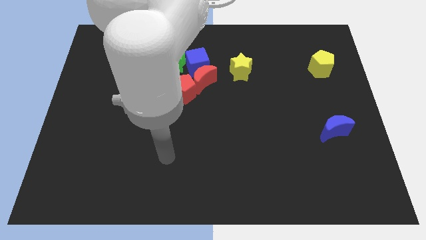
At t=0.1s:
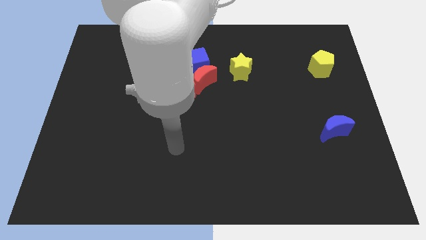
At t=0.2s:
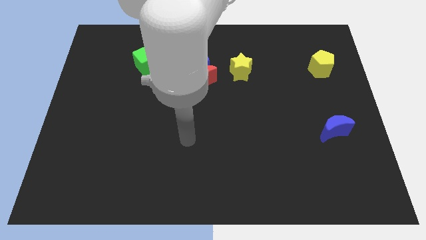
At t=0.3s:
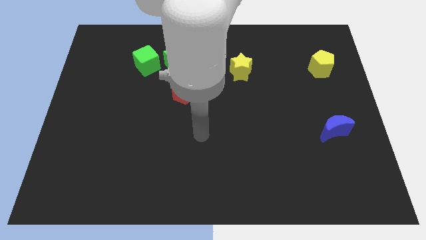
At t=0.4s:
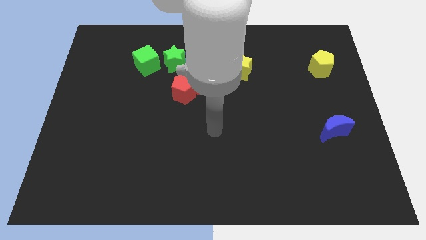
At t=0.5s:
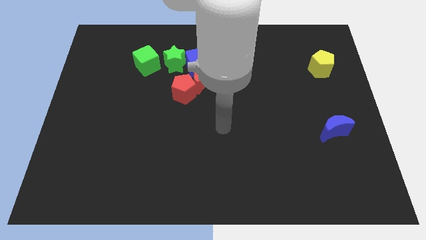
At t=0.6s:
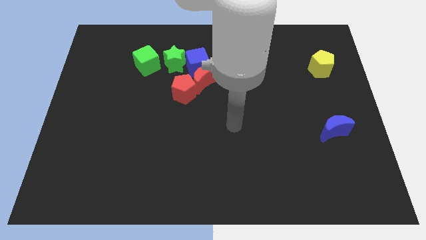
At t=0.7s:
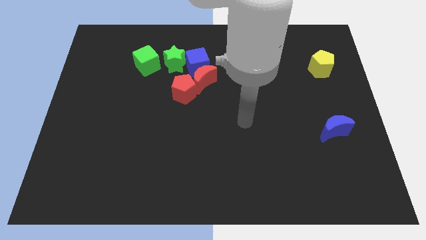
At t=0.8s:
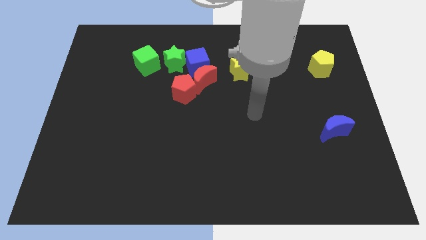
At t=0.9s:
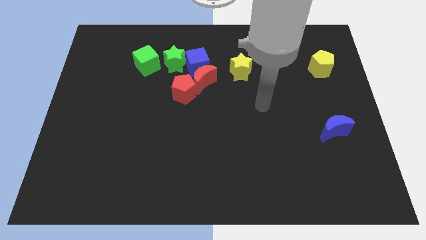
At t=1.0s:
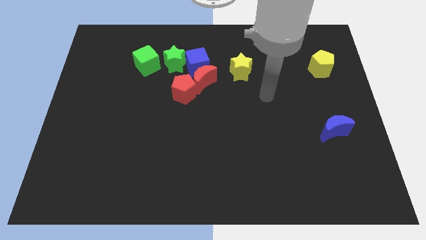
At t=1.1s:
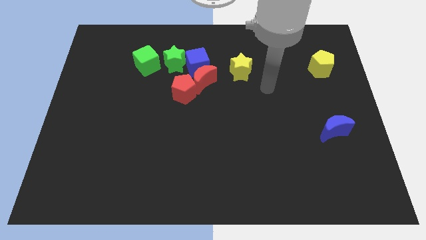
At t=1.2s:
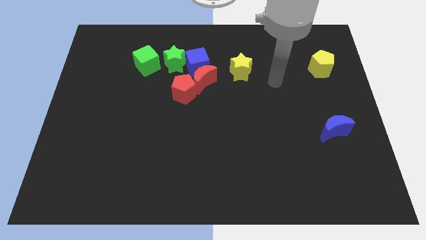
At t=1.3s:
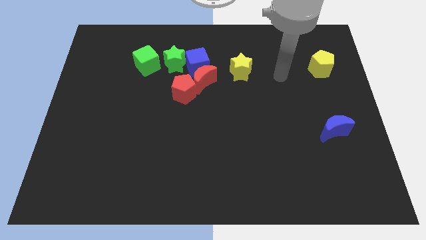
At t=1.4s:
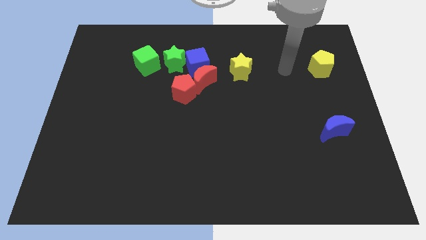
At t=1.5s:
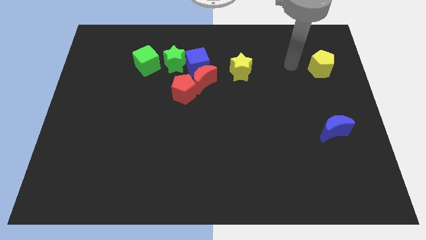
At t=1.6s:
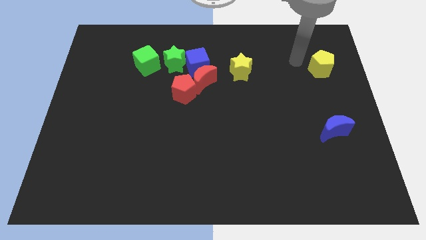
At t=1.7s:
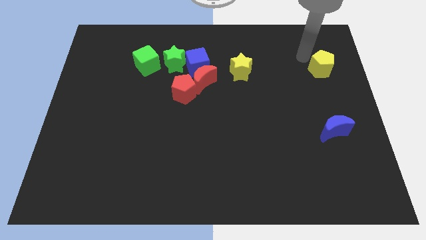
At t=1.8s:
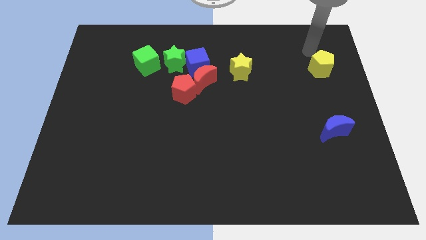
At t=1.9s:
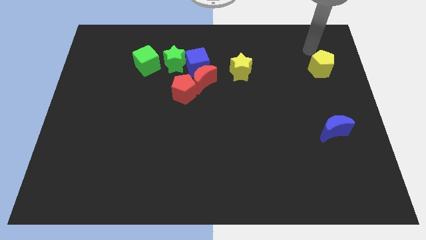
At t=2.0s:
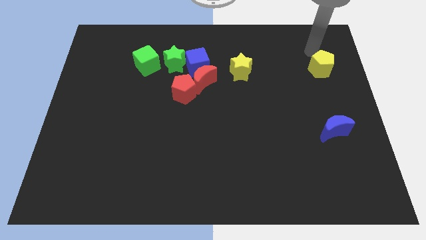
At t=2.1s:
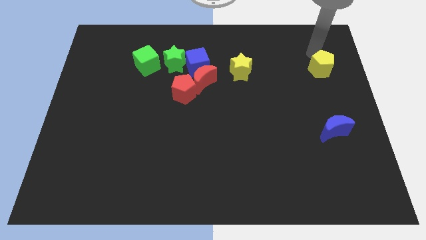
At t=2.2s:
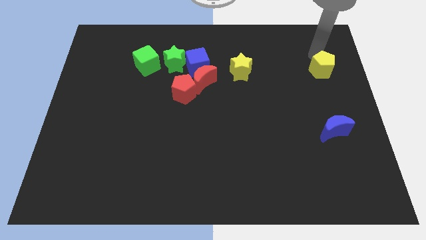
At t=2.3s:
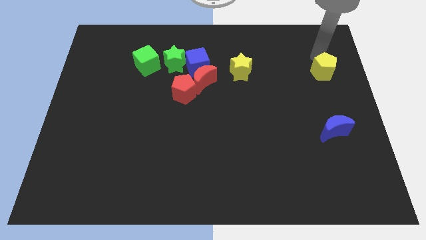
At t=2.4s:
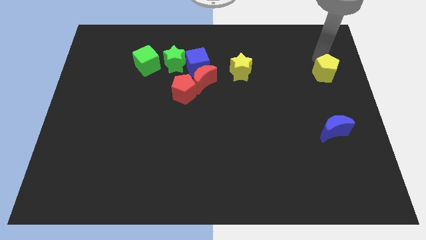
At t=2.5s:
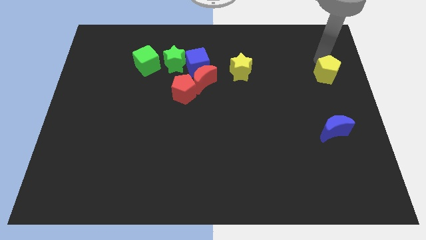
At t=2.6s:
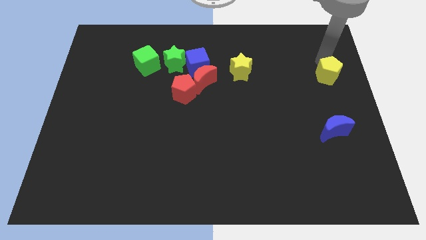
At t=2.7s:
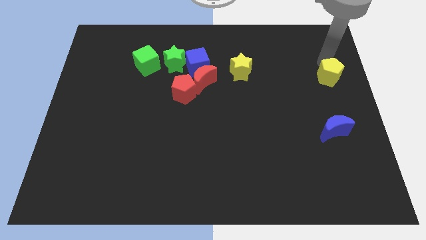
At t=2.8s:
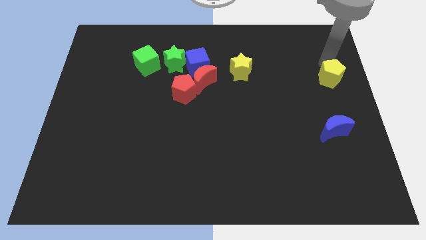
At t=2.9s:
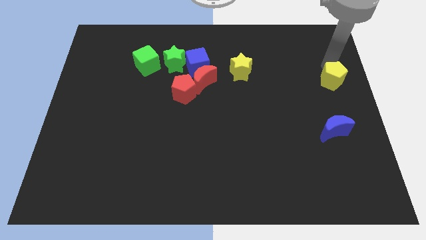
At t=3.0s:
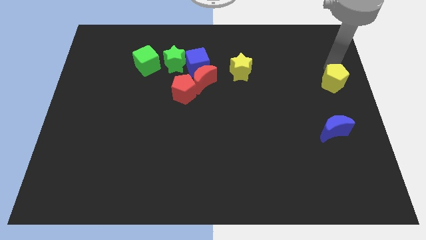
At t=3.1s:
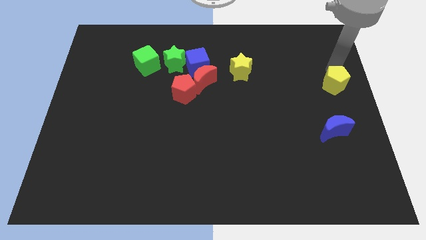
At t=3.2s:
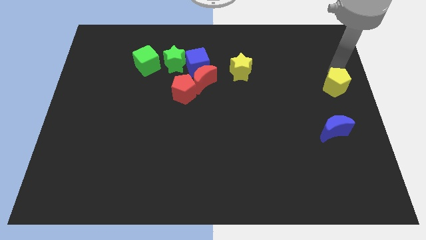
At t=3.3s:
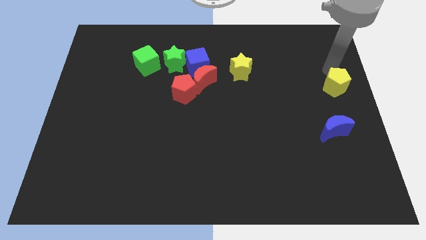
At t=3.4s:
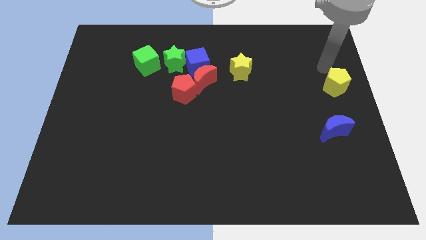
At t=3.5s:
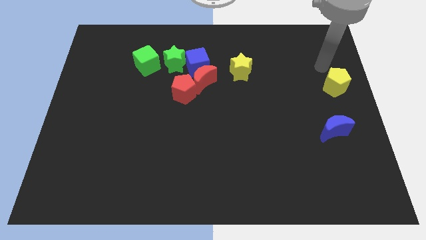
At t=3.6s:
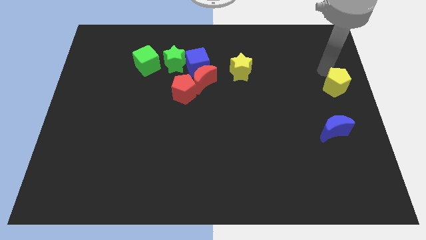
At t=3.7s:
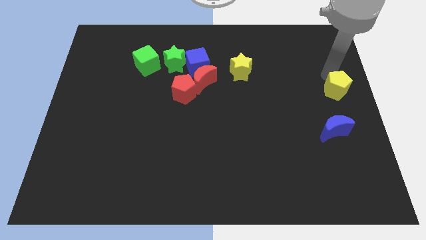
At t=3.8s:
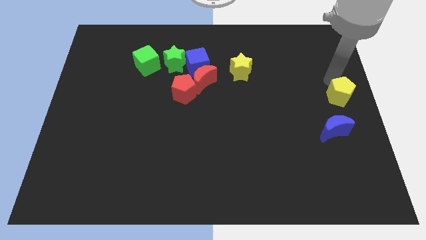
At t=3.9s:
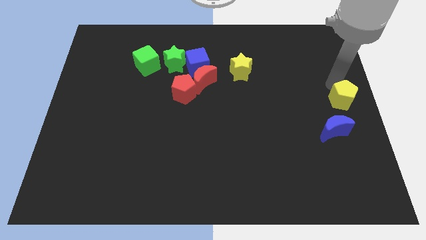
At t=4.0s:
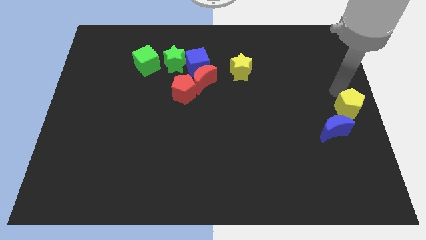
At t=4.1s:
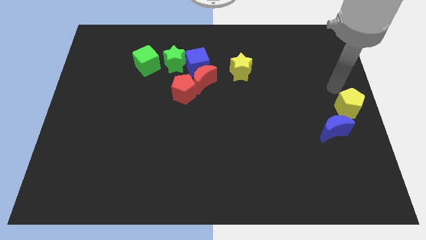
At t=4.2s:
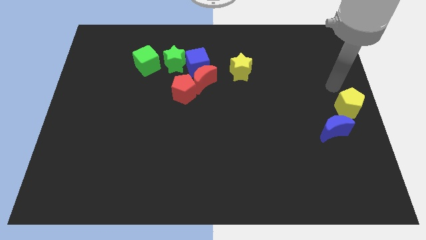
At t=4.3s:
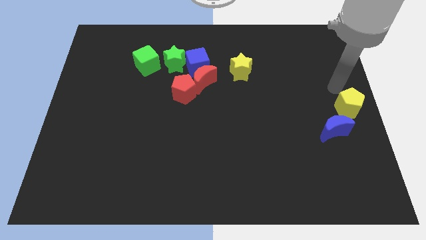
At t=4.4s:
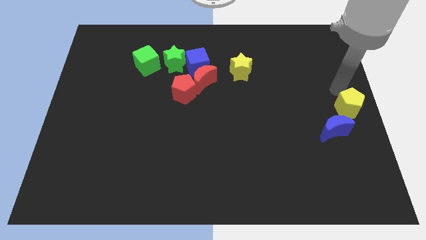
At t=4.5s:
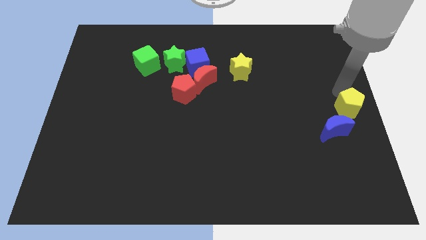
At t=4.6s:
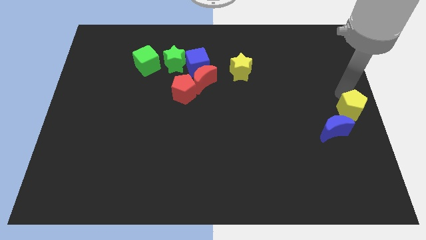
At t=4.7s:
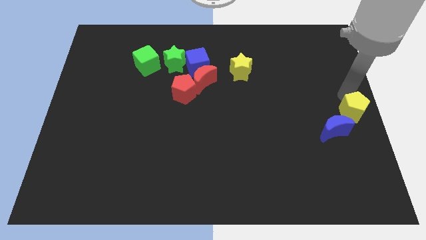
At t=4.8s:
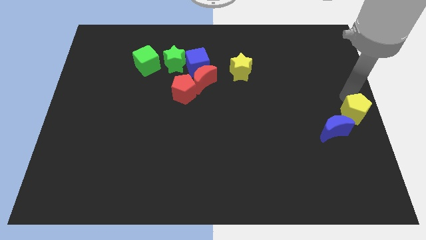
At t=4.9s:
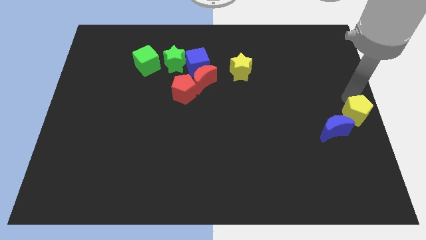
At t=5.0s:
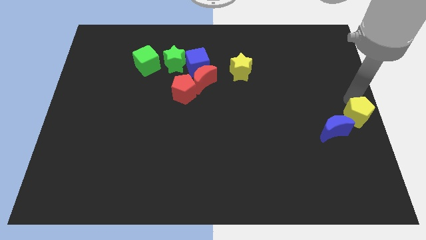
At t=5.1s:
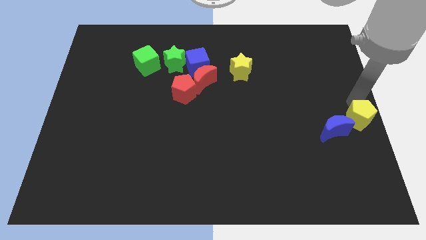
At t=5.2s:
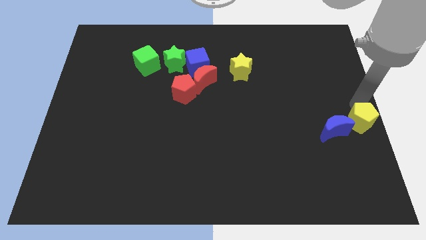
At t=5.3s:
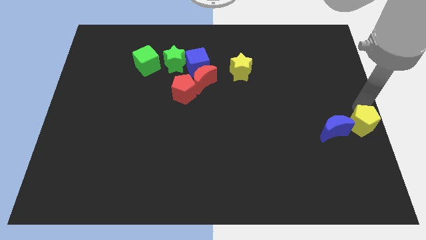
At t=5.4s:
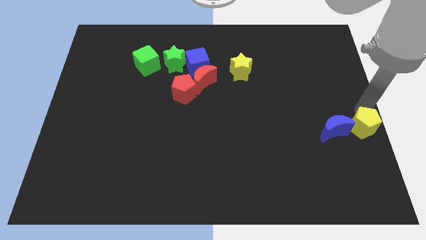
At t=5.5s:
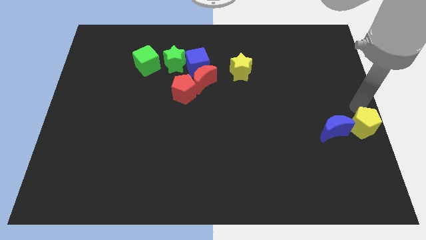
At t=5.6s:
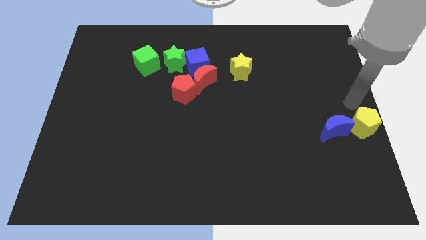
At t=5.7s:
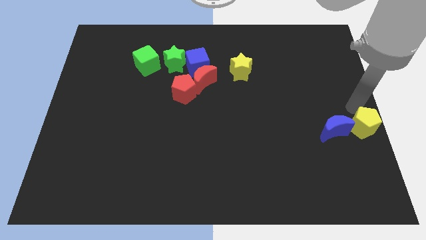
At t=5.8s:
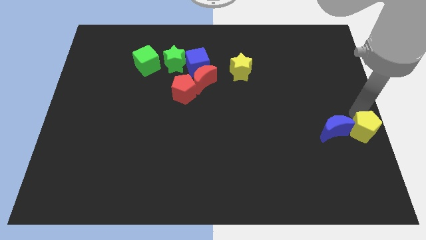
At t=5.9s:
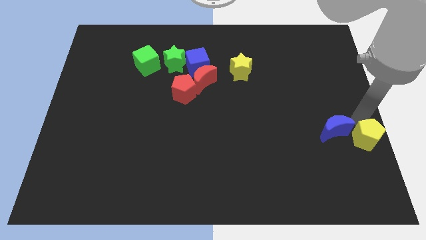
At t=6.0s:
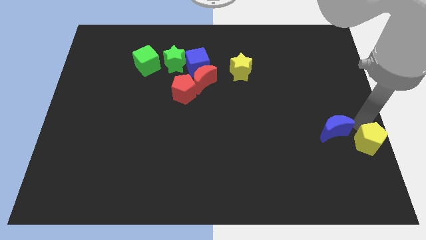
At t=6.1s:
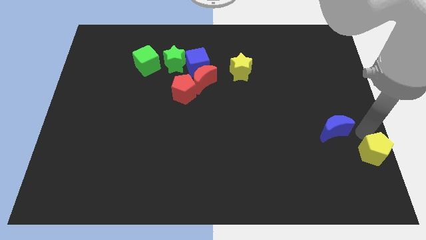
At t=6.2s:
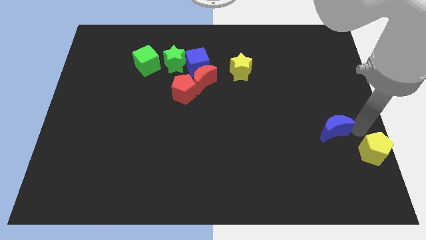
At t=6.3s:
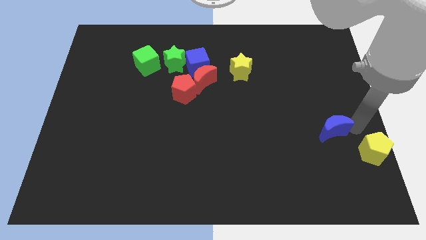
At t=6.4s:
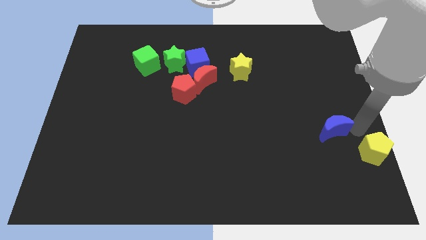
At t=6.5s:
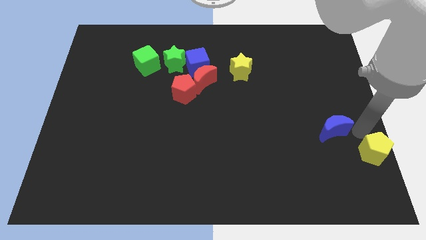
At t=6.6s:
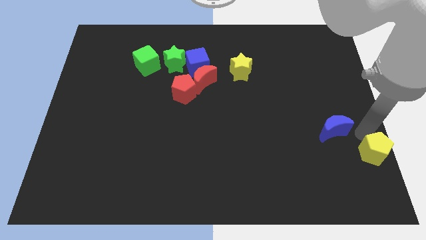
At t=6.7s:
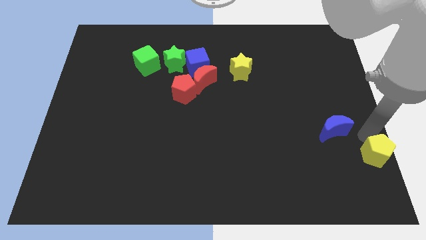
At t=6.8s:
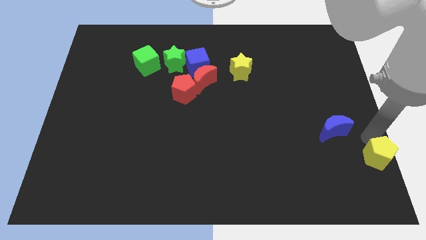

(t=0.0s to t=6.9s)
put the yellow pentagon to the bottom right of the board
